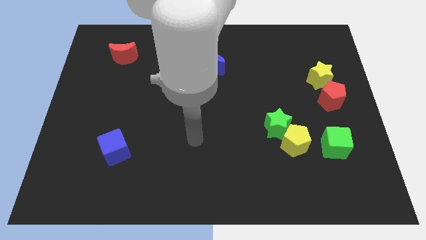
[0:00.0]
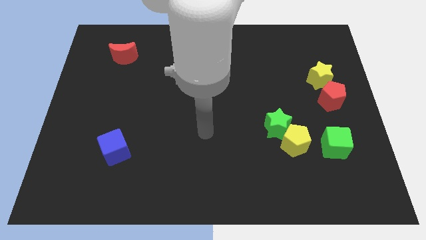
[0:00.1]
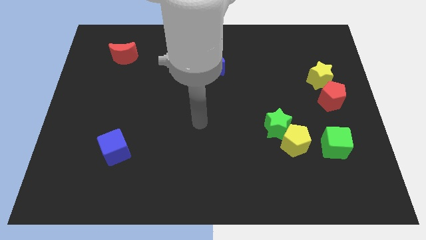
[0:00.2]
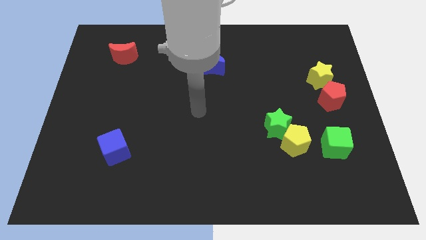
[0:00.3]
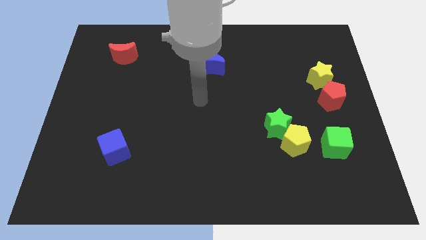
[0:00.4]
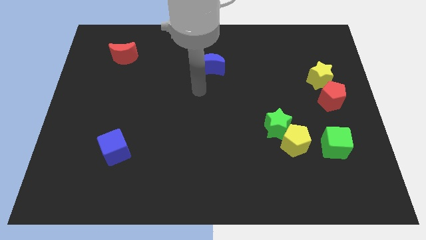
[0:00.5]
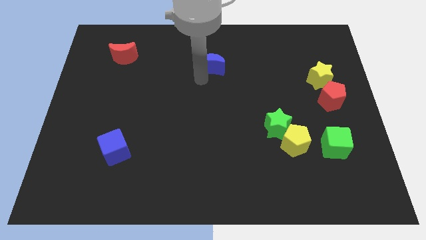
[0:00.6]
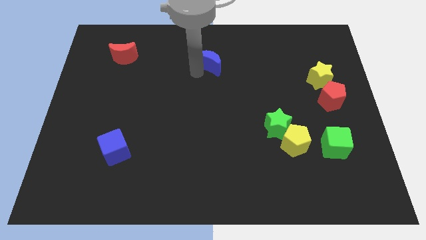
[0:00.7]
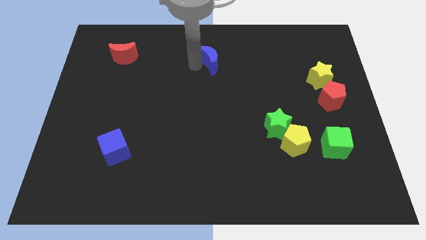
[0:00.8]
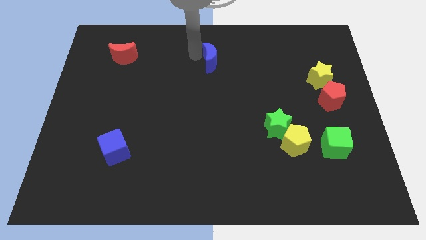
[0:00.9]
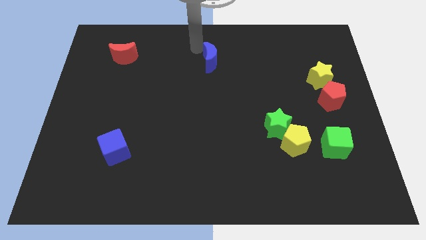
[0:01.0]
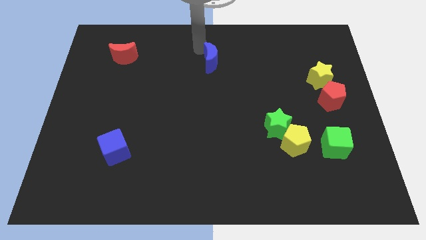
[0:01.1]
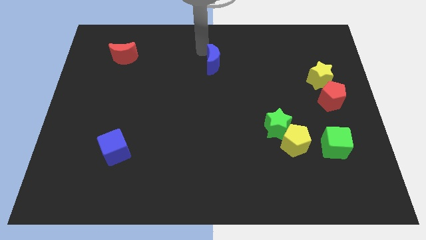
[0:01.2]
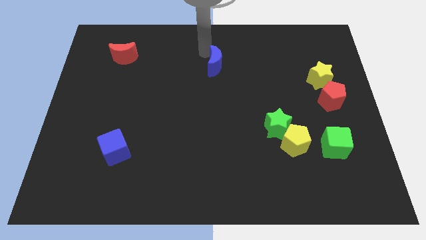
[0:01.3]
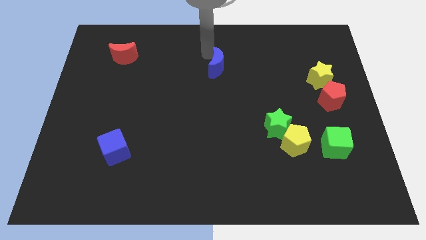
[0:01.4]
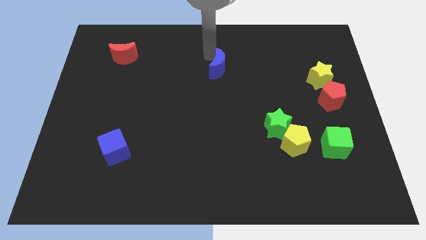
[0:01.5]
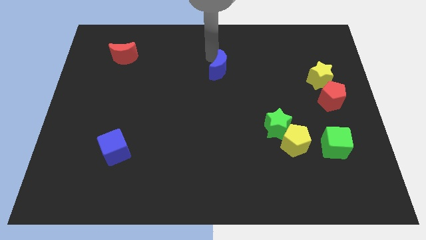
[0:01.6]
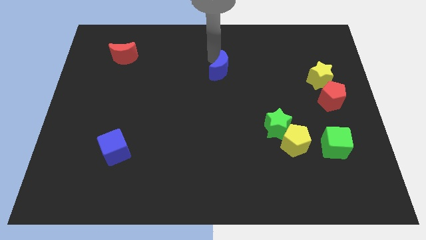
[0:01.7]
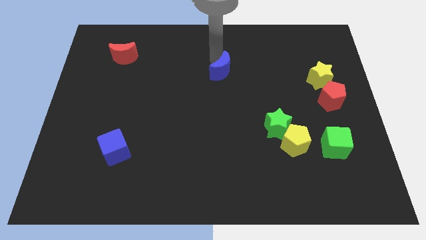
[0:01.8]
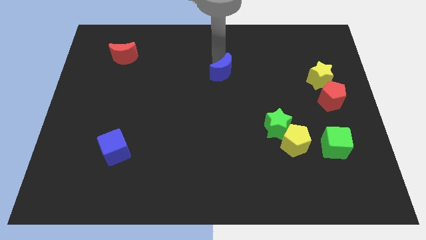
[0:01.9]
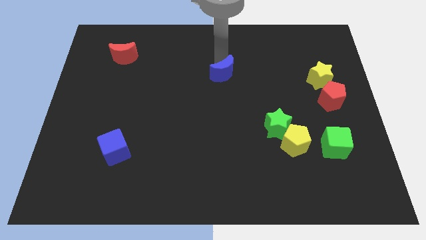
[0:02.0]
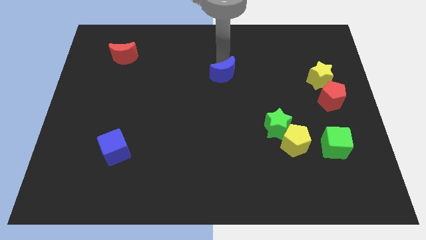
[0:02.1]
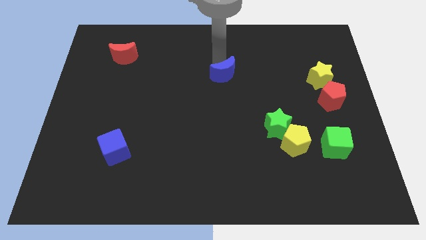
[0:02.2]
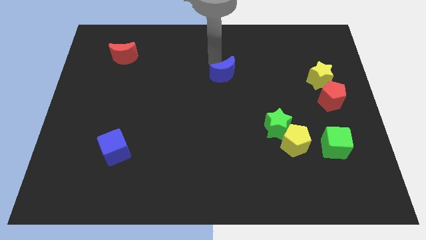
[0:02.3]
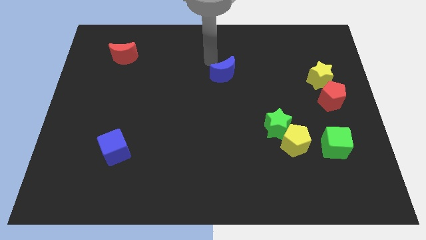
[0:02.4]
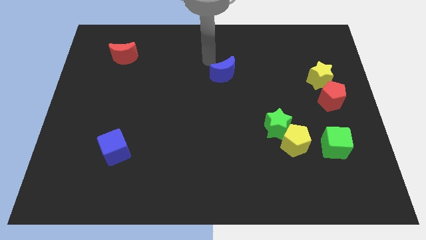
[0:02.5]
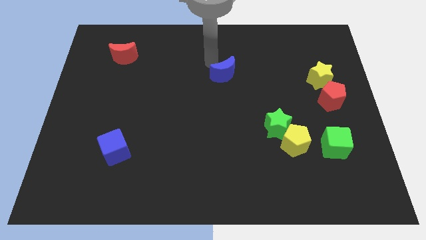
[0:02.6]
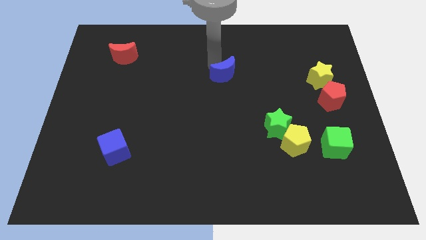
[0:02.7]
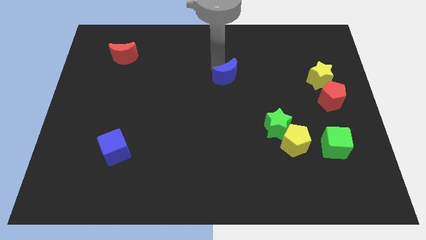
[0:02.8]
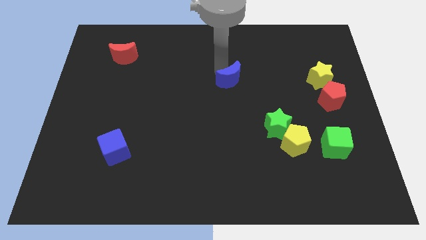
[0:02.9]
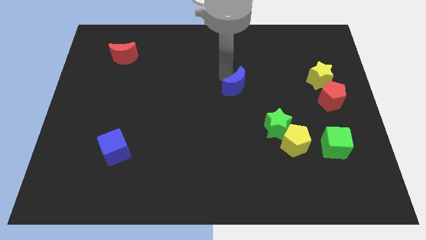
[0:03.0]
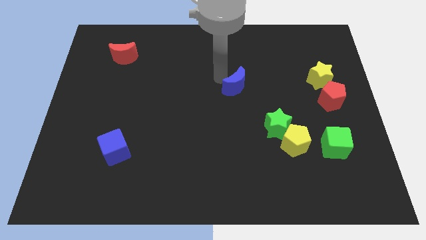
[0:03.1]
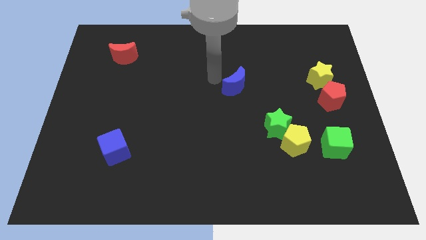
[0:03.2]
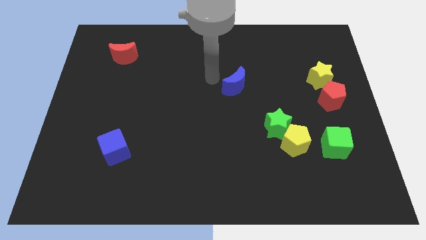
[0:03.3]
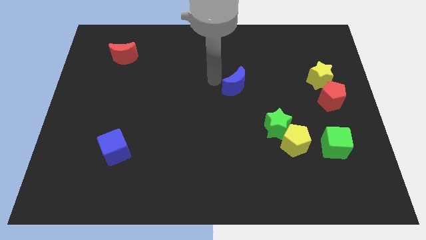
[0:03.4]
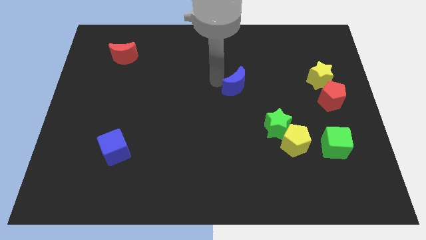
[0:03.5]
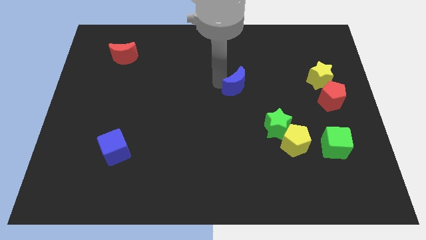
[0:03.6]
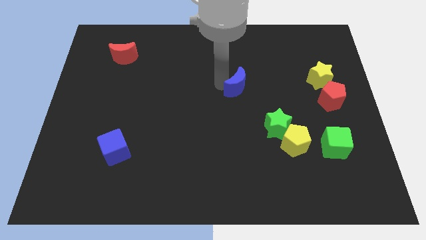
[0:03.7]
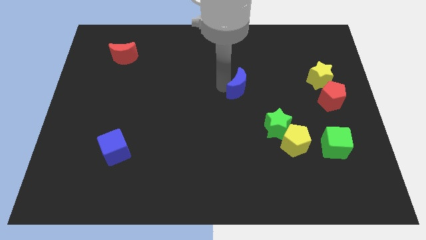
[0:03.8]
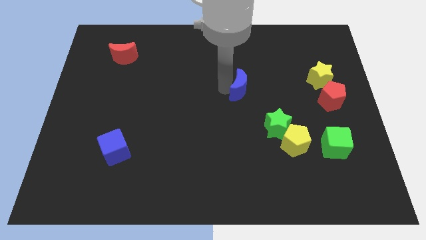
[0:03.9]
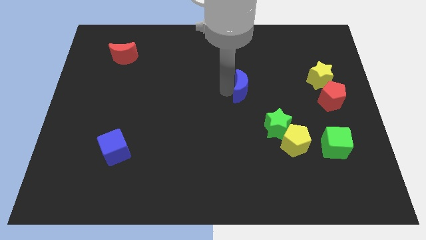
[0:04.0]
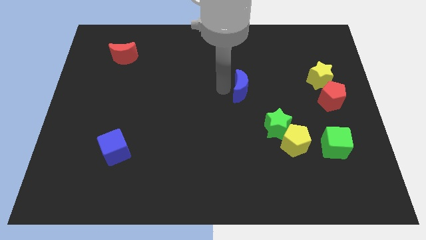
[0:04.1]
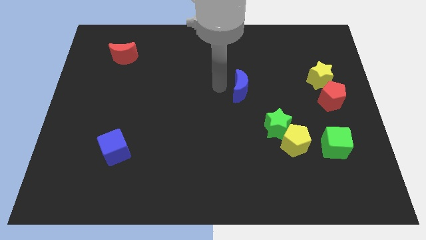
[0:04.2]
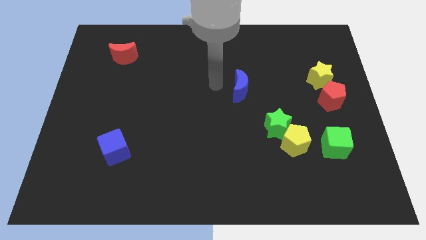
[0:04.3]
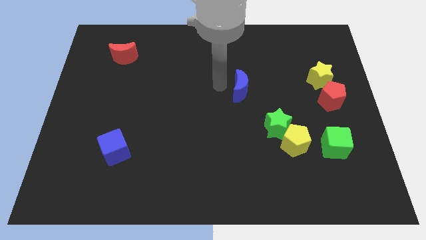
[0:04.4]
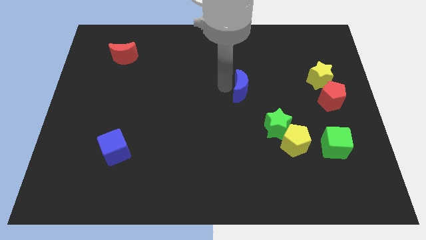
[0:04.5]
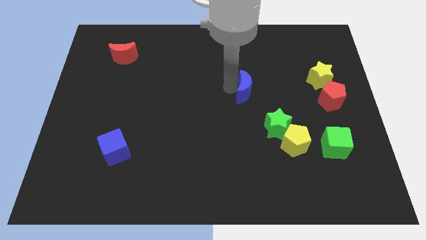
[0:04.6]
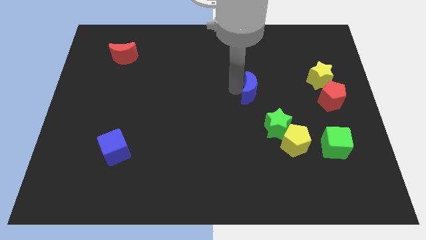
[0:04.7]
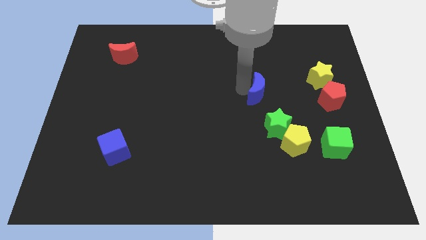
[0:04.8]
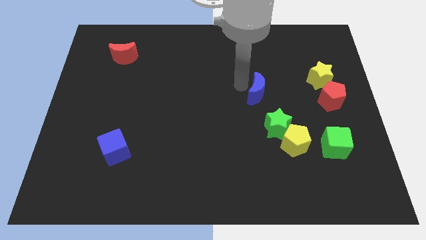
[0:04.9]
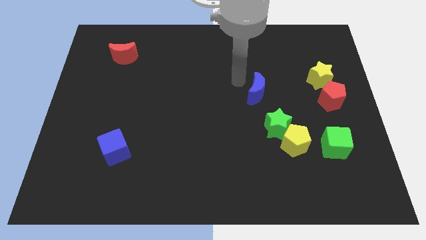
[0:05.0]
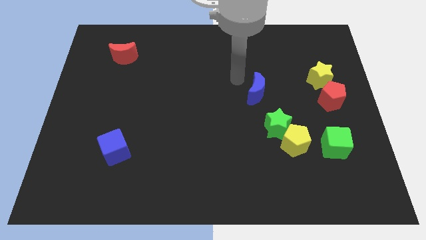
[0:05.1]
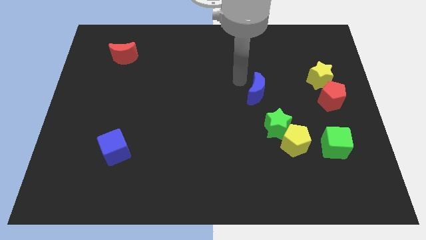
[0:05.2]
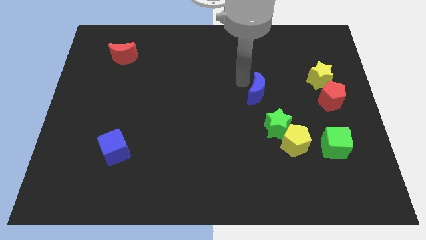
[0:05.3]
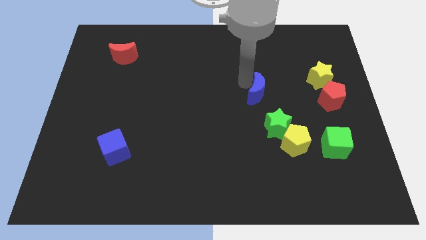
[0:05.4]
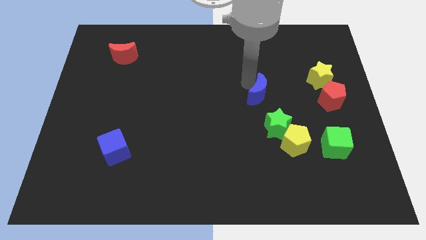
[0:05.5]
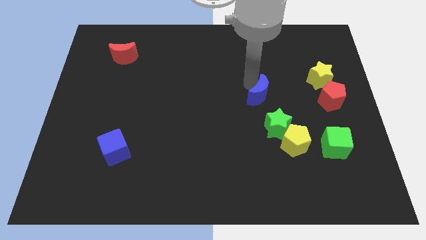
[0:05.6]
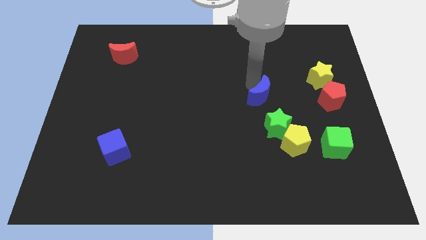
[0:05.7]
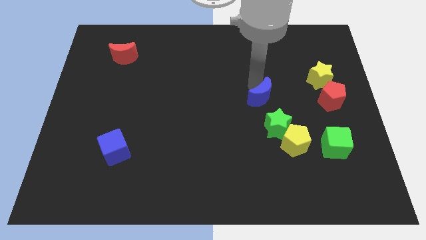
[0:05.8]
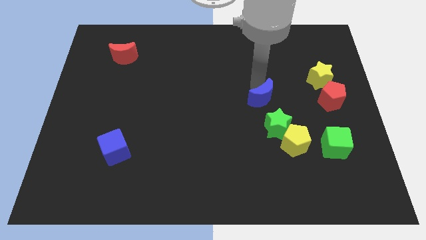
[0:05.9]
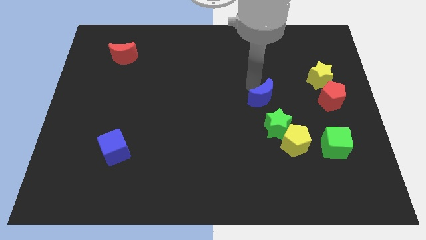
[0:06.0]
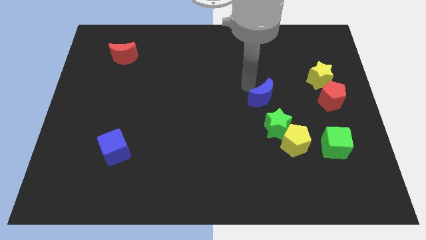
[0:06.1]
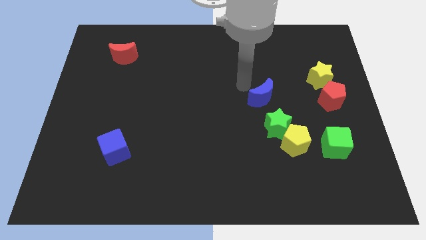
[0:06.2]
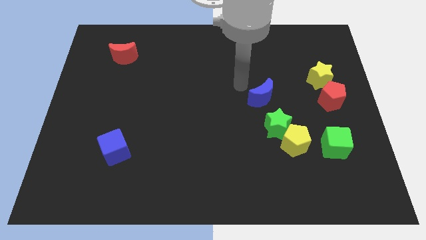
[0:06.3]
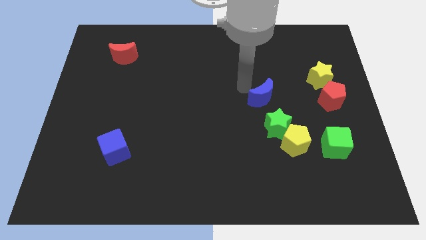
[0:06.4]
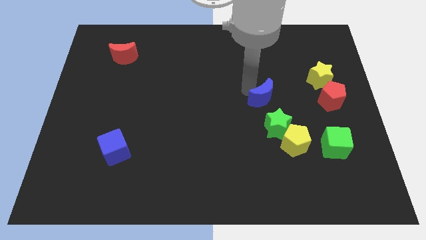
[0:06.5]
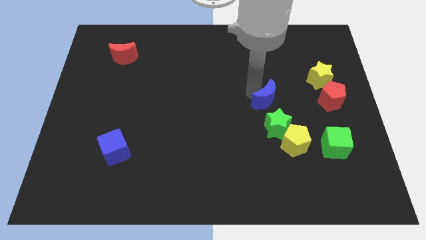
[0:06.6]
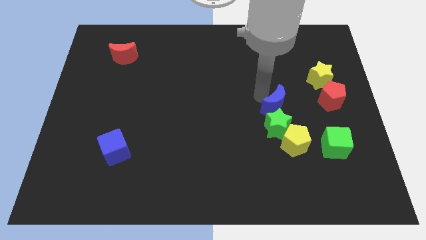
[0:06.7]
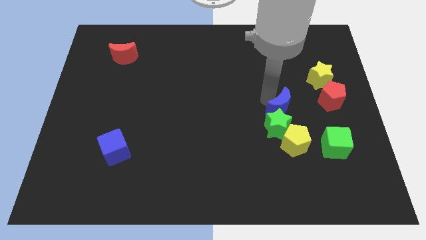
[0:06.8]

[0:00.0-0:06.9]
move the blue moon downwards and then to the right

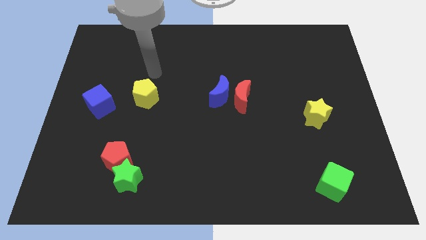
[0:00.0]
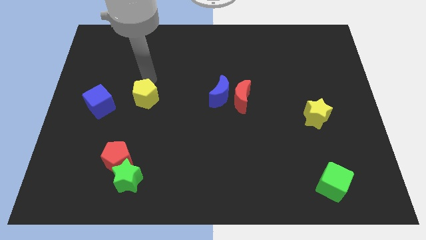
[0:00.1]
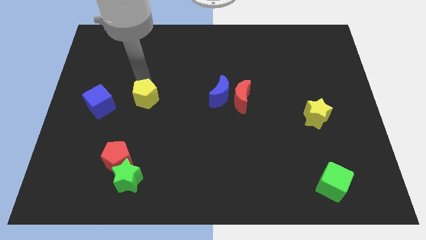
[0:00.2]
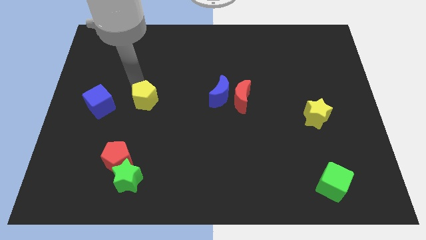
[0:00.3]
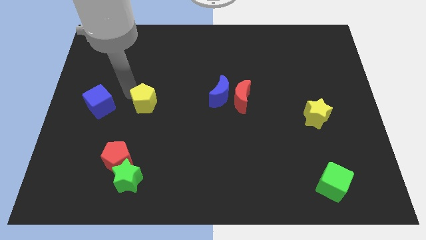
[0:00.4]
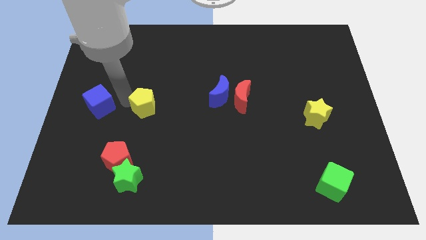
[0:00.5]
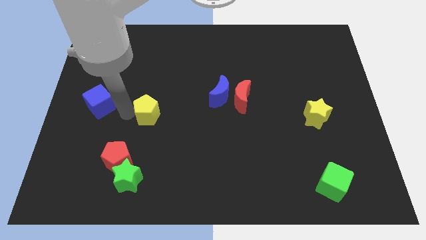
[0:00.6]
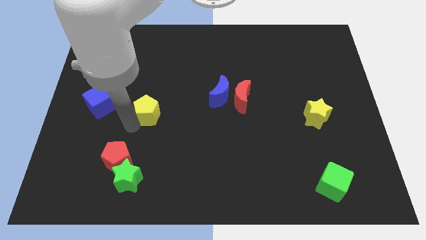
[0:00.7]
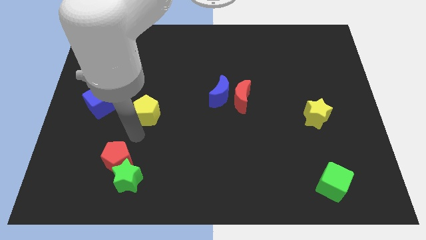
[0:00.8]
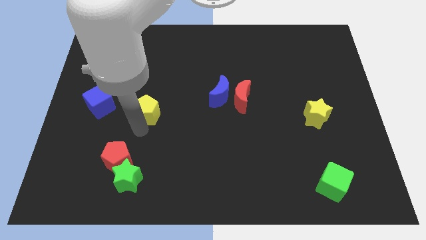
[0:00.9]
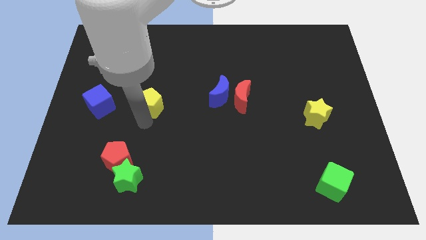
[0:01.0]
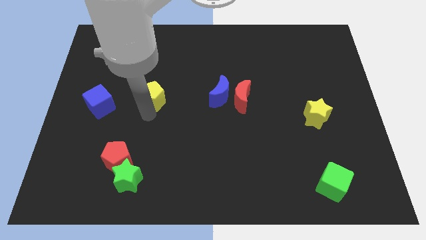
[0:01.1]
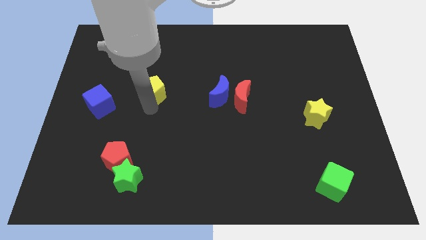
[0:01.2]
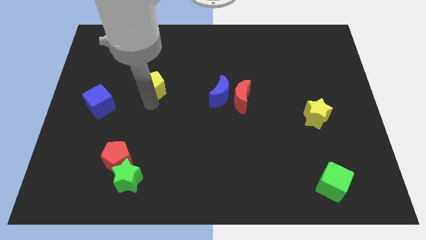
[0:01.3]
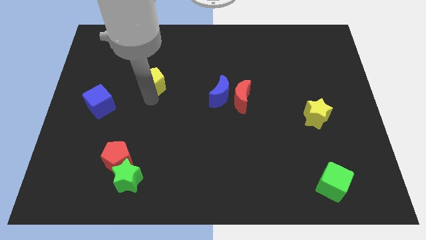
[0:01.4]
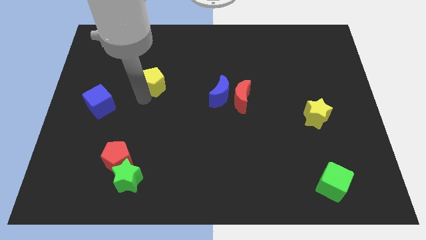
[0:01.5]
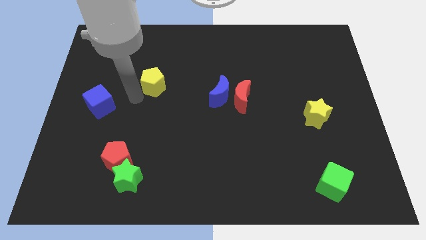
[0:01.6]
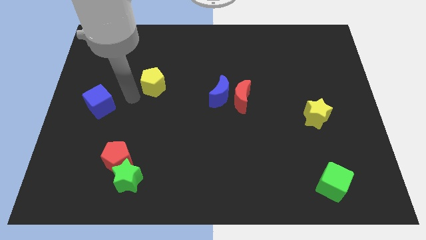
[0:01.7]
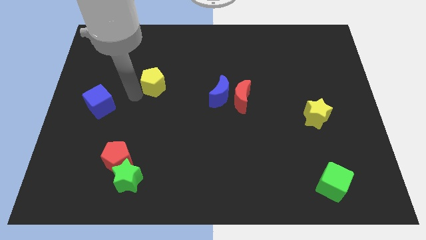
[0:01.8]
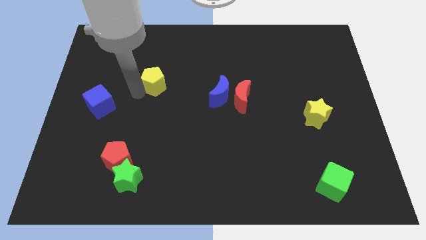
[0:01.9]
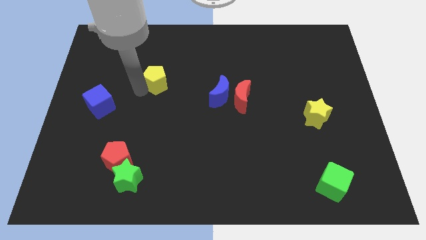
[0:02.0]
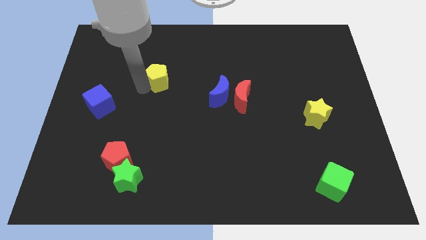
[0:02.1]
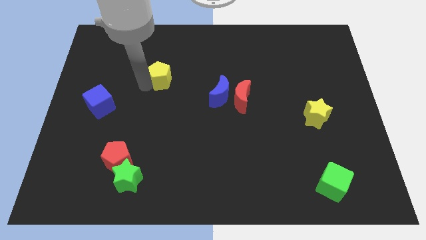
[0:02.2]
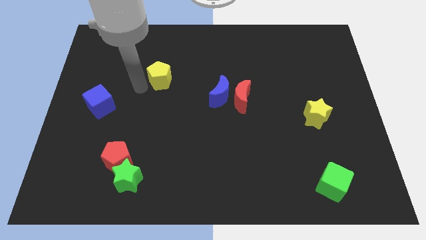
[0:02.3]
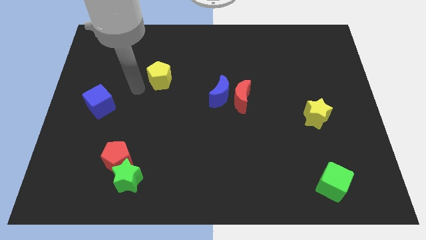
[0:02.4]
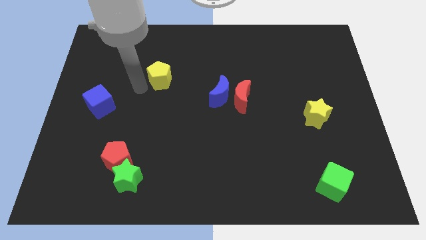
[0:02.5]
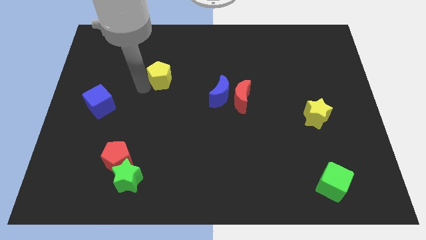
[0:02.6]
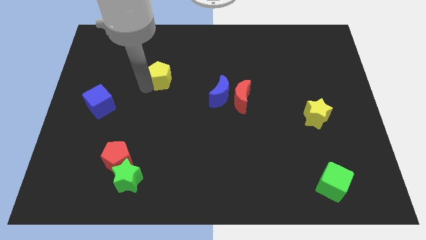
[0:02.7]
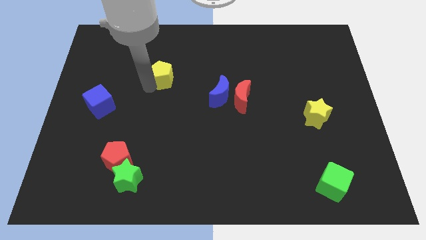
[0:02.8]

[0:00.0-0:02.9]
slightly slide the yellow pentagon diagonally up and to the right
